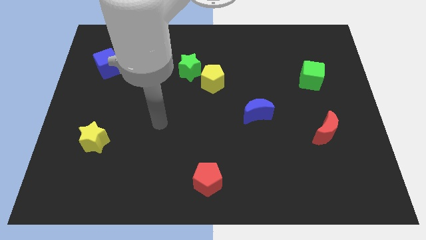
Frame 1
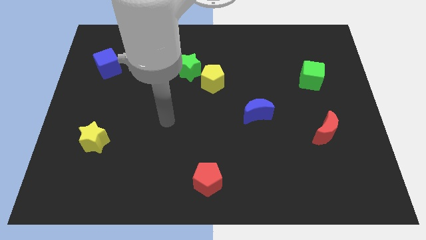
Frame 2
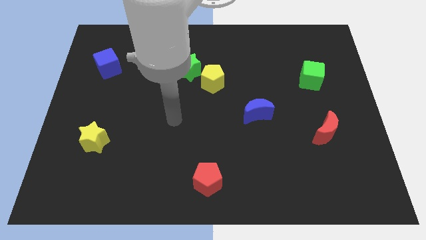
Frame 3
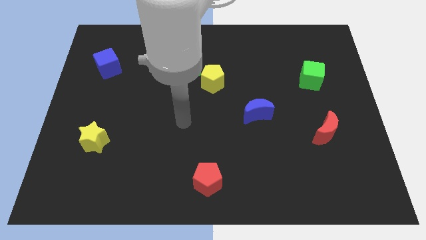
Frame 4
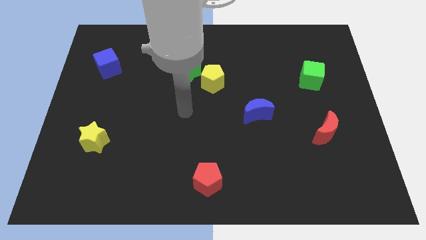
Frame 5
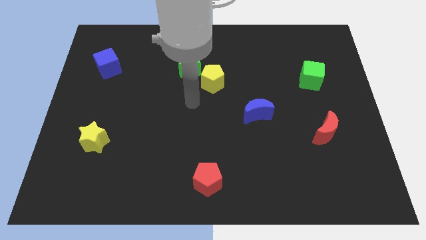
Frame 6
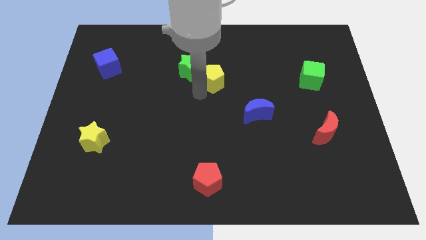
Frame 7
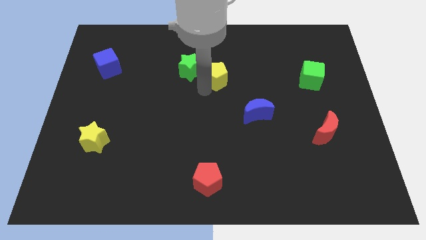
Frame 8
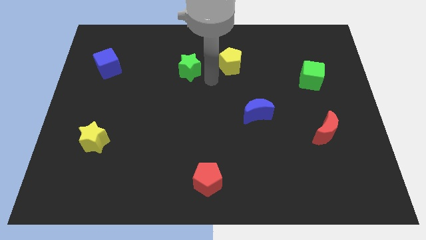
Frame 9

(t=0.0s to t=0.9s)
separate the green star from the yellow pentagon

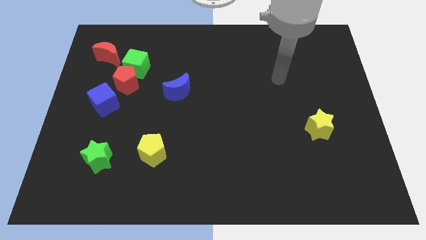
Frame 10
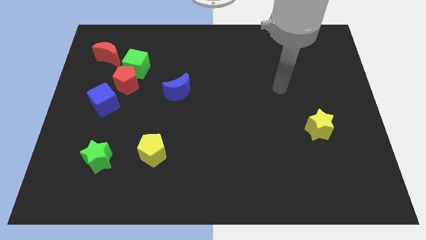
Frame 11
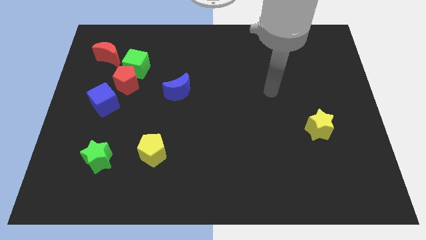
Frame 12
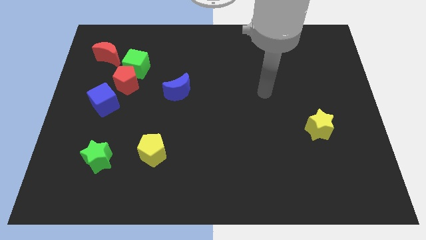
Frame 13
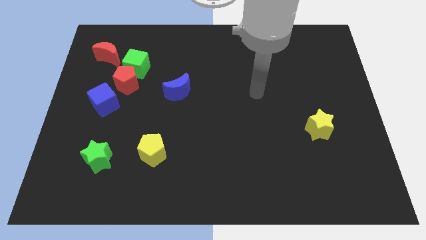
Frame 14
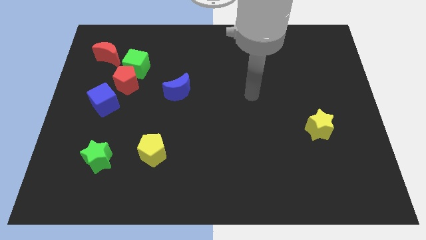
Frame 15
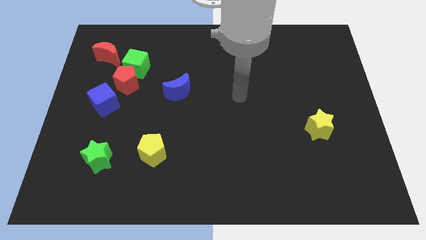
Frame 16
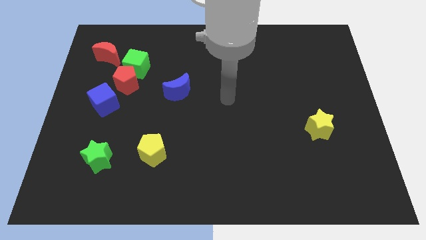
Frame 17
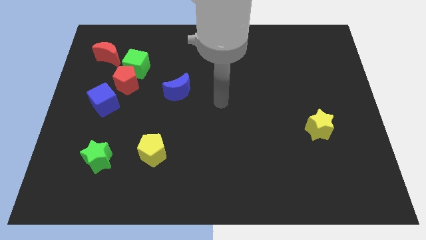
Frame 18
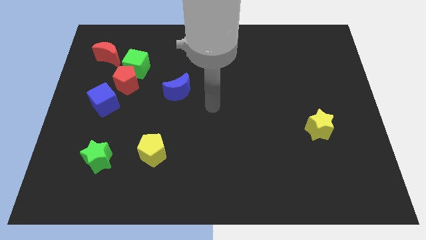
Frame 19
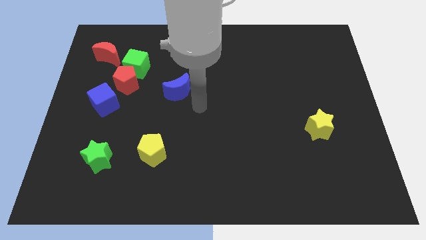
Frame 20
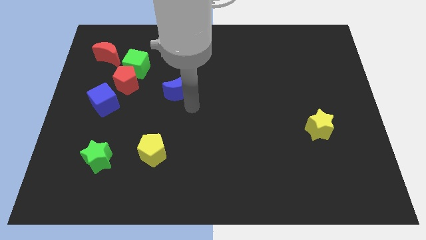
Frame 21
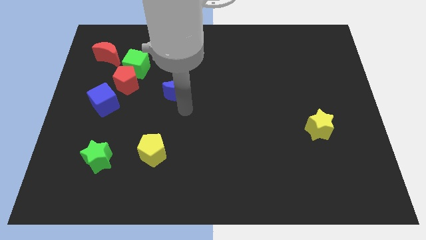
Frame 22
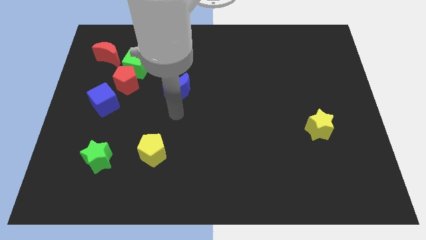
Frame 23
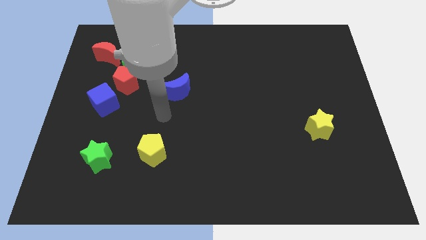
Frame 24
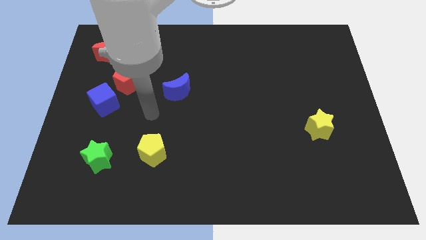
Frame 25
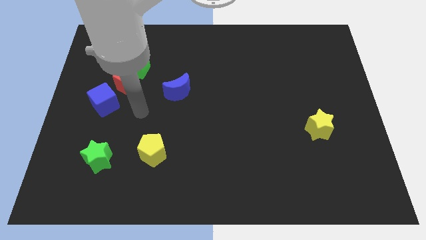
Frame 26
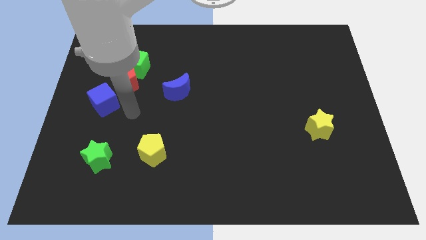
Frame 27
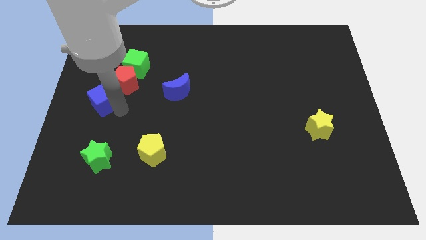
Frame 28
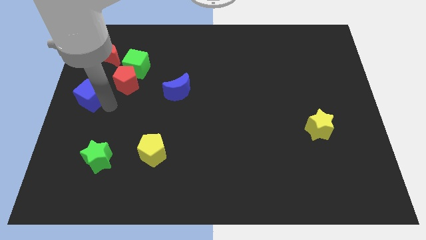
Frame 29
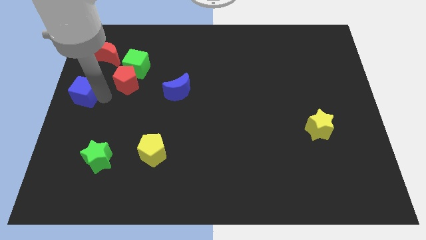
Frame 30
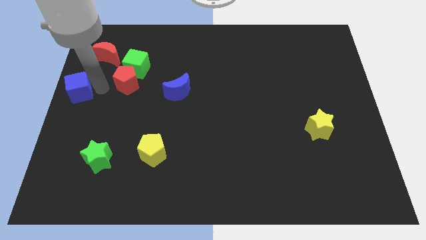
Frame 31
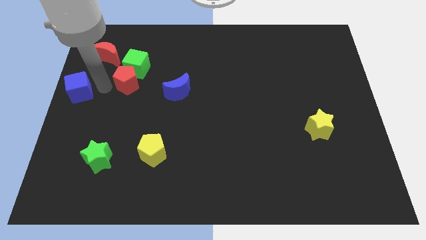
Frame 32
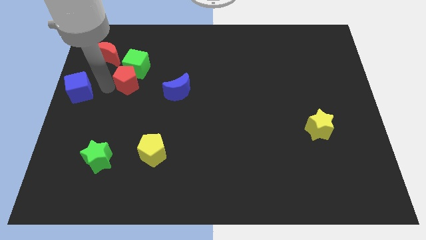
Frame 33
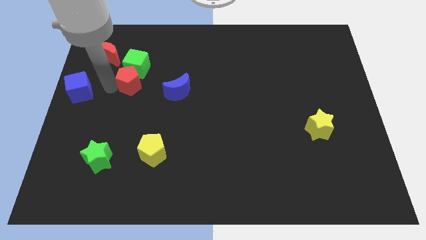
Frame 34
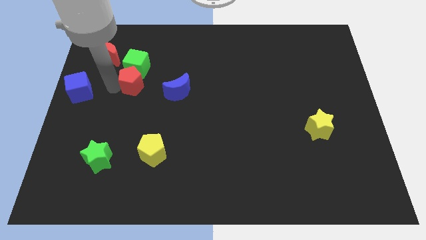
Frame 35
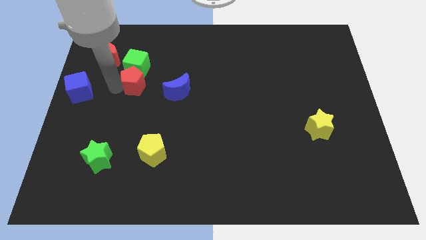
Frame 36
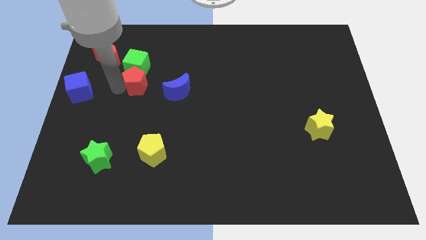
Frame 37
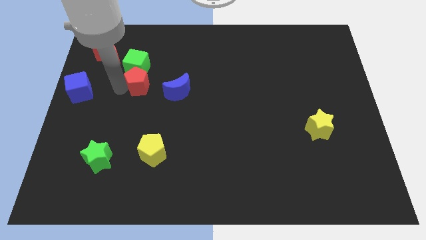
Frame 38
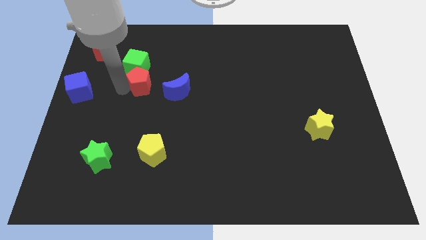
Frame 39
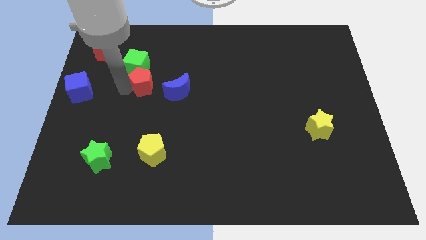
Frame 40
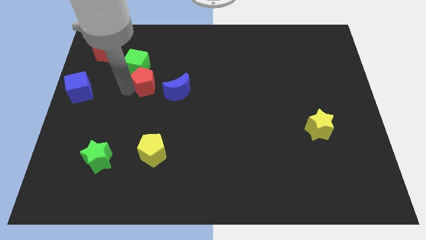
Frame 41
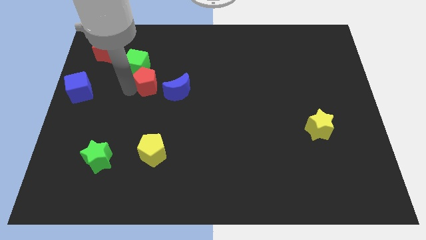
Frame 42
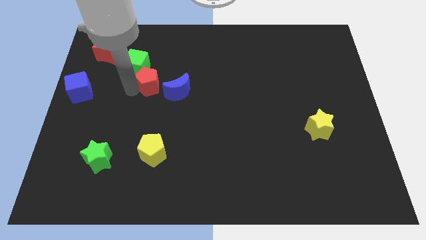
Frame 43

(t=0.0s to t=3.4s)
separate the red pentagon from the green cube and blue cube

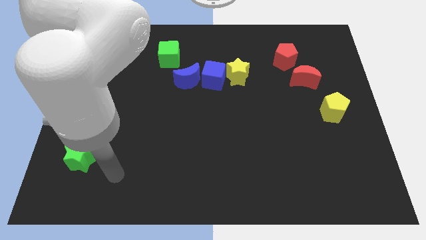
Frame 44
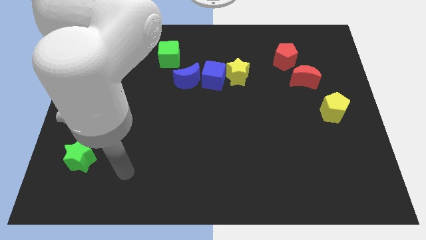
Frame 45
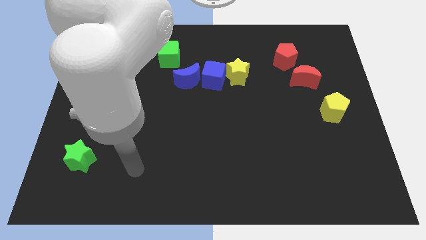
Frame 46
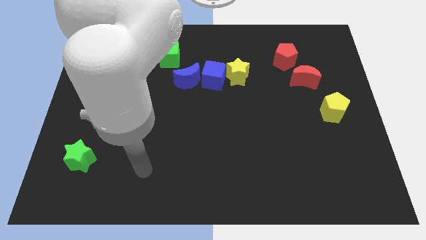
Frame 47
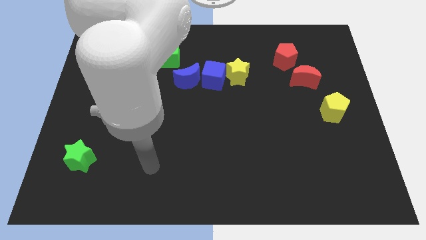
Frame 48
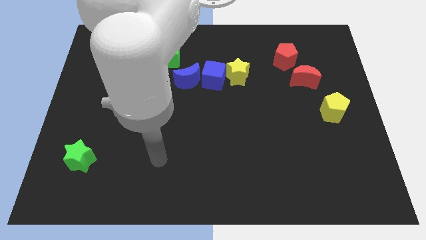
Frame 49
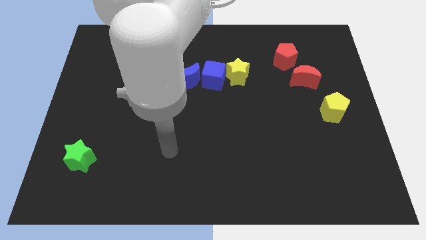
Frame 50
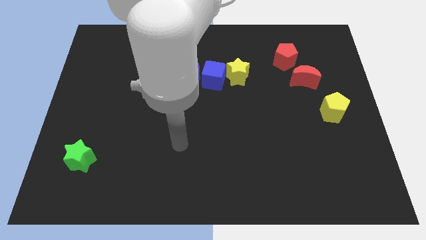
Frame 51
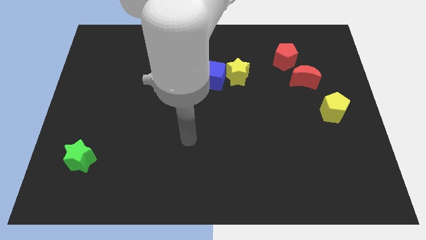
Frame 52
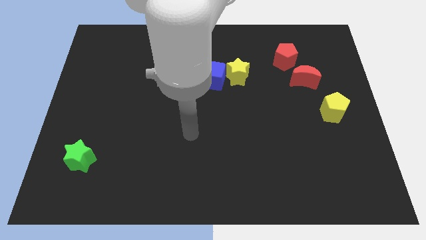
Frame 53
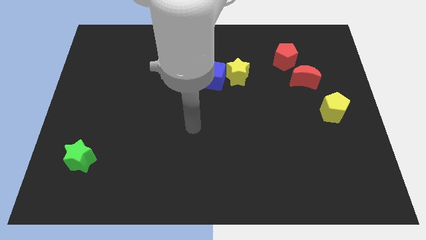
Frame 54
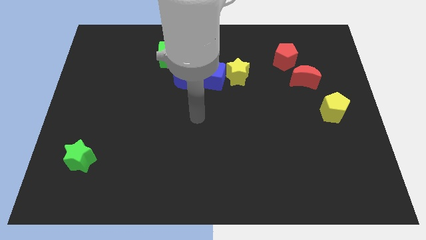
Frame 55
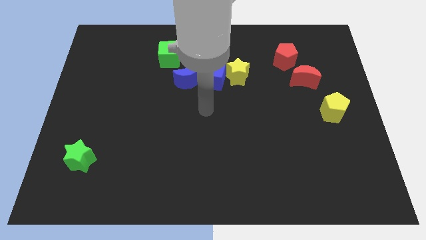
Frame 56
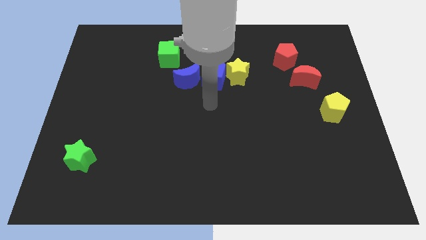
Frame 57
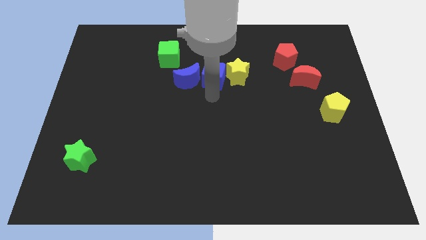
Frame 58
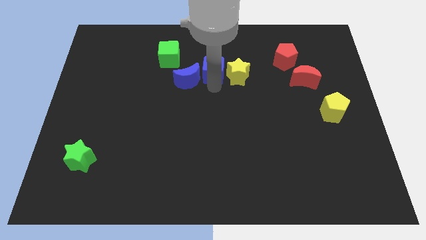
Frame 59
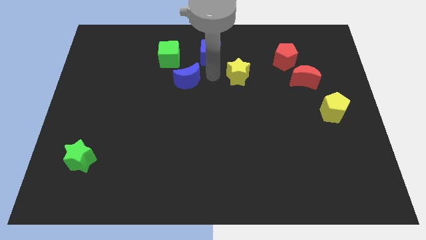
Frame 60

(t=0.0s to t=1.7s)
separate the yellow star from the blue cube

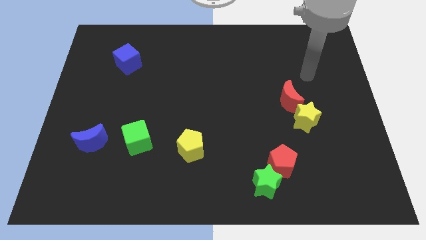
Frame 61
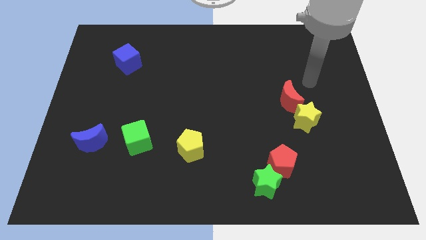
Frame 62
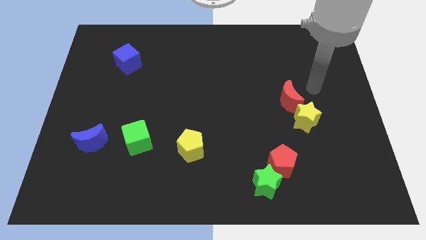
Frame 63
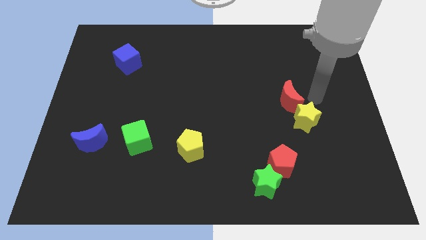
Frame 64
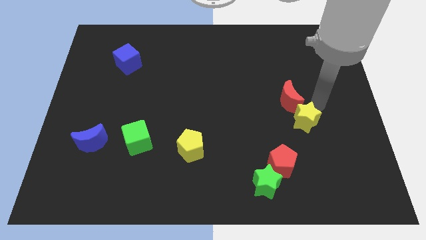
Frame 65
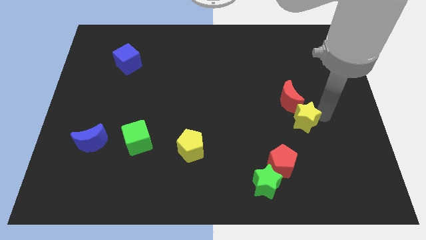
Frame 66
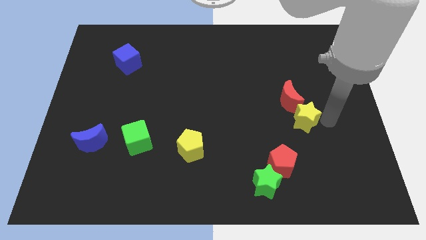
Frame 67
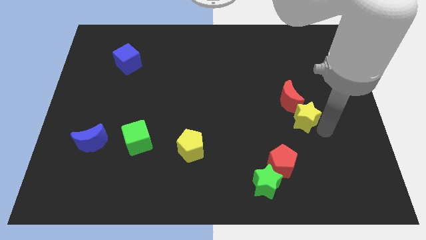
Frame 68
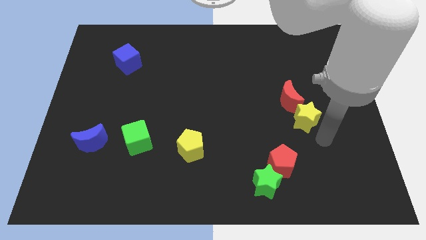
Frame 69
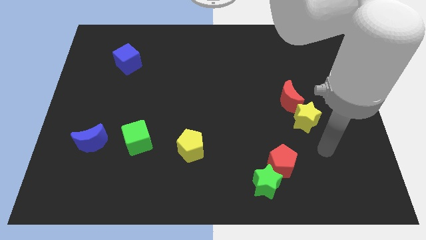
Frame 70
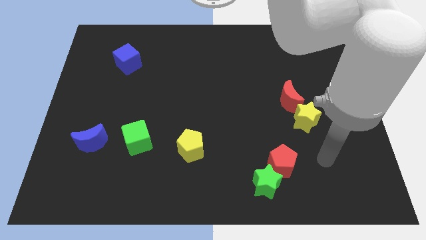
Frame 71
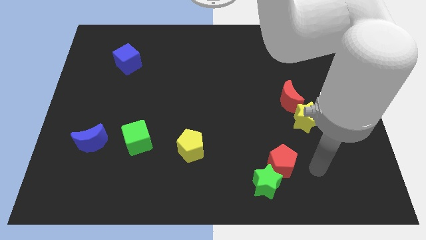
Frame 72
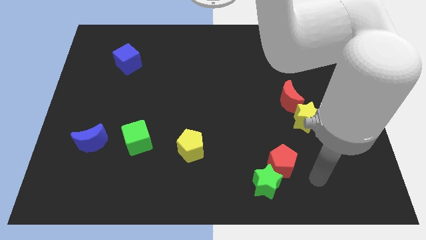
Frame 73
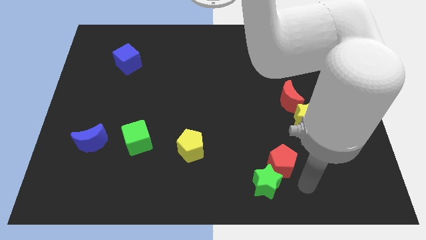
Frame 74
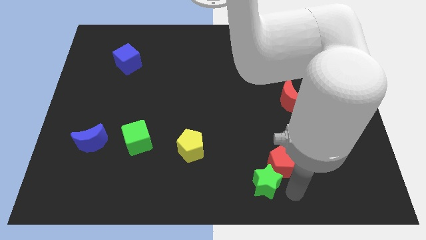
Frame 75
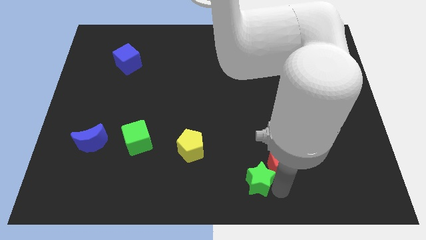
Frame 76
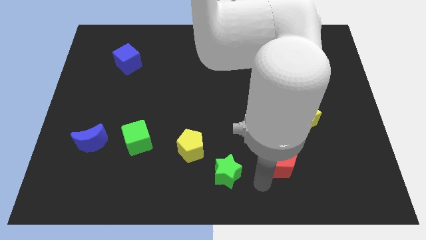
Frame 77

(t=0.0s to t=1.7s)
move the red pentagon away from the green star

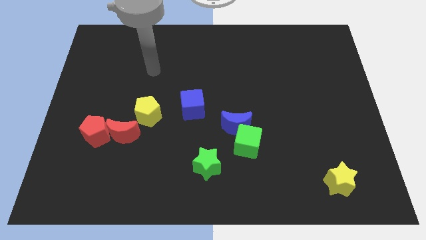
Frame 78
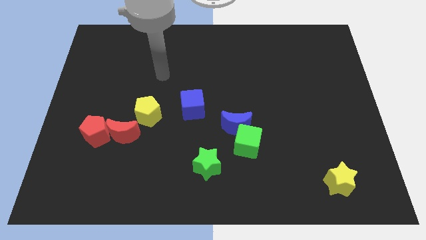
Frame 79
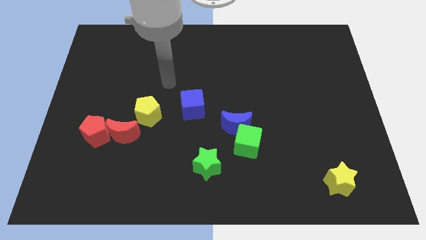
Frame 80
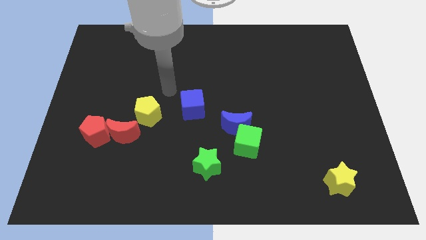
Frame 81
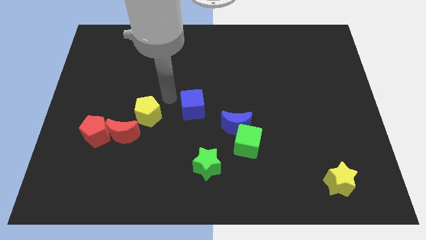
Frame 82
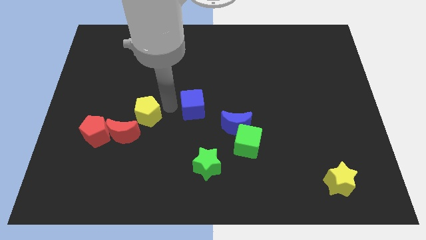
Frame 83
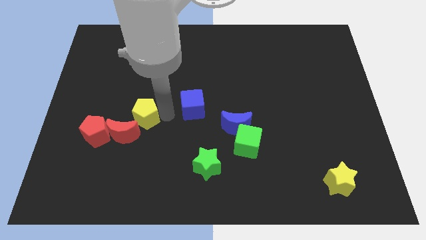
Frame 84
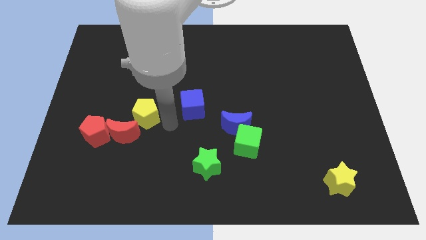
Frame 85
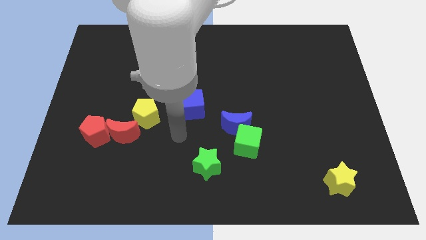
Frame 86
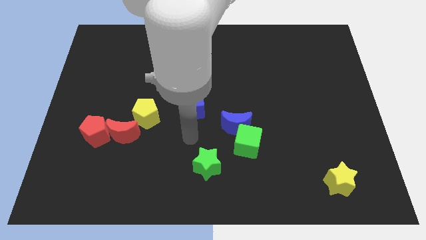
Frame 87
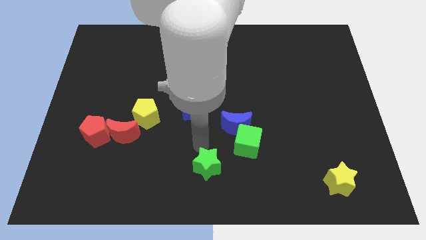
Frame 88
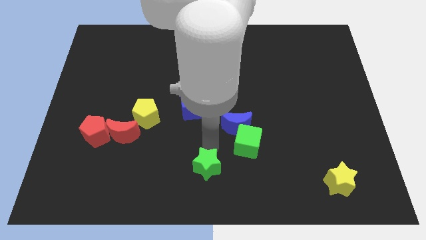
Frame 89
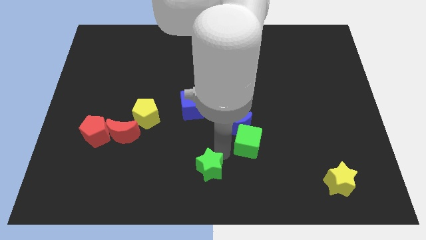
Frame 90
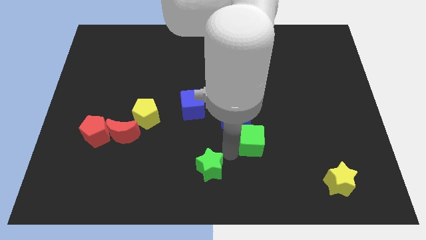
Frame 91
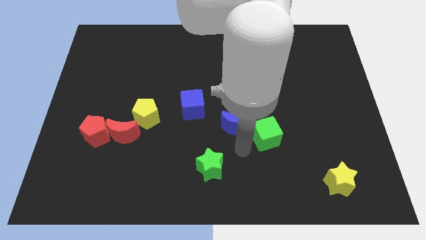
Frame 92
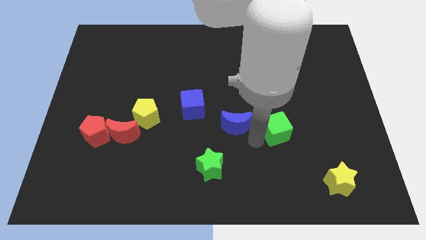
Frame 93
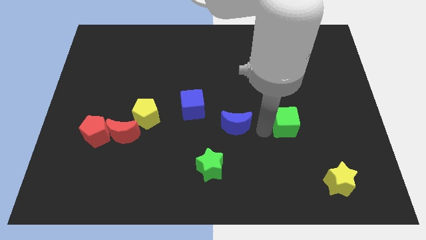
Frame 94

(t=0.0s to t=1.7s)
pull the blue moon apart from the green cube

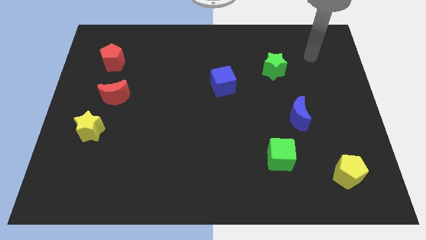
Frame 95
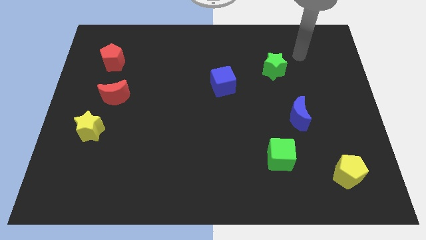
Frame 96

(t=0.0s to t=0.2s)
move the red moon away from the yellow star
